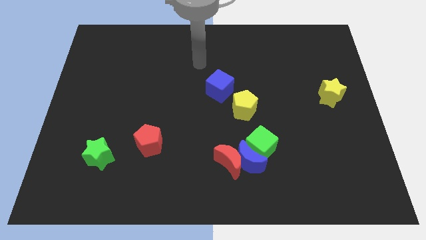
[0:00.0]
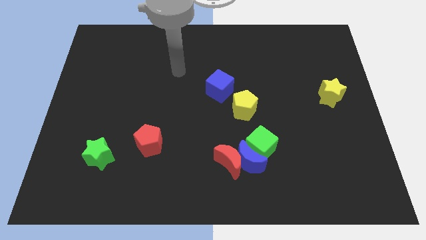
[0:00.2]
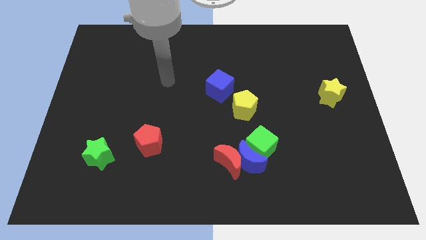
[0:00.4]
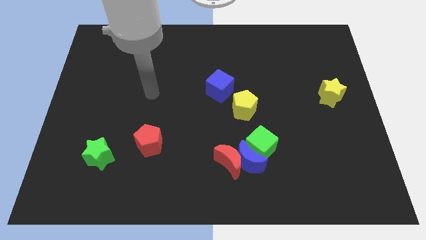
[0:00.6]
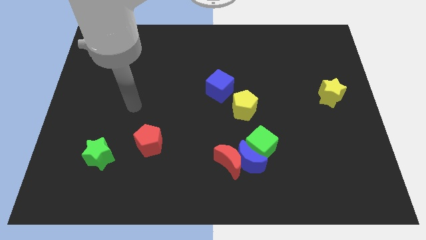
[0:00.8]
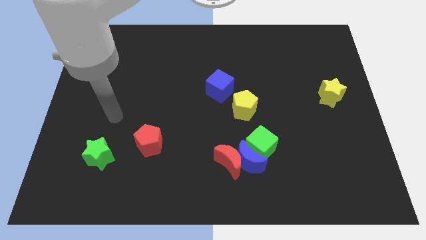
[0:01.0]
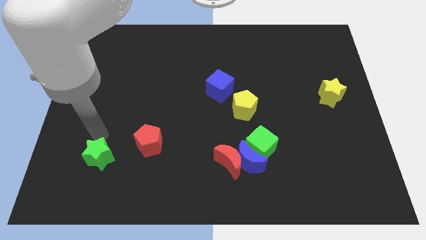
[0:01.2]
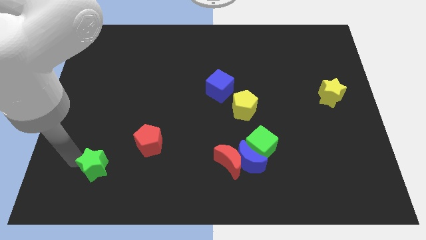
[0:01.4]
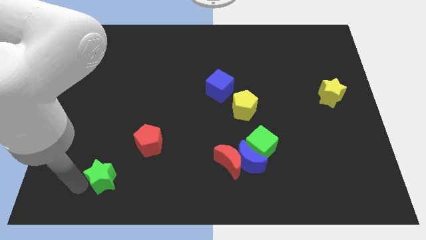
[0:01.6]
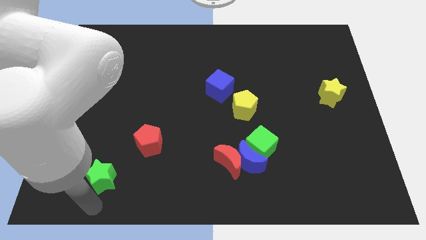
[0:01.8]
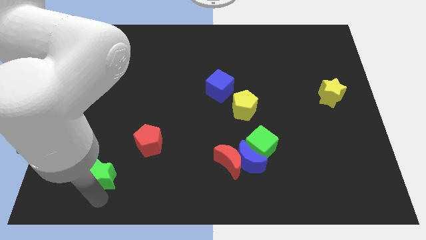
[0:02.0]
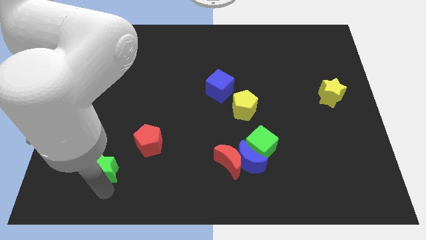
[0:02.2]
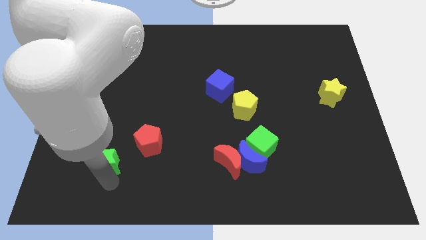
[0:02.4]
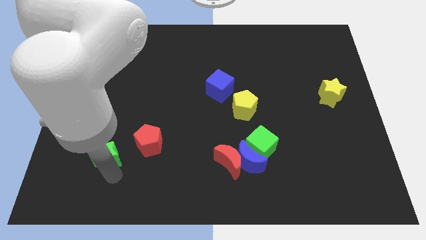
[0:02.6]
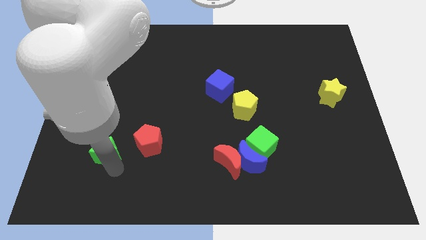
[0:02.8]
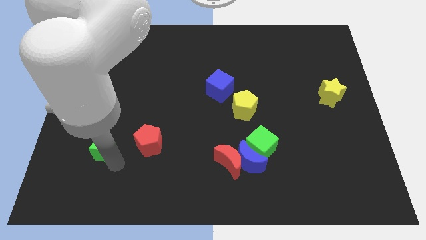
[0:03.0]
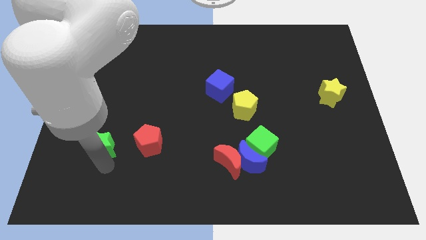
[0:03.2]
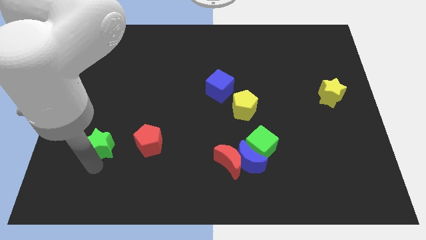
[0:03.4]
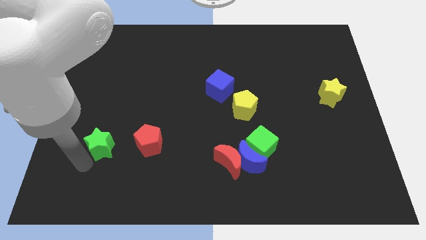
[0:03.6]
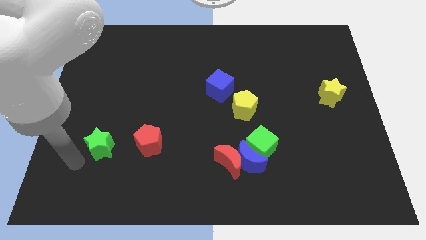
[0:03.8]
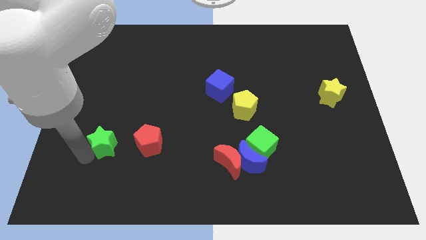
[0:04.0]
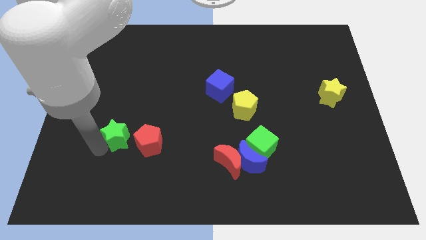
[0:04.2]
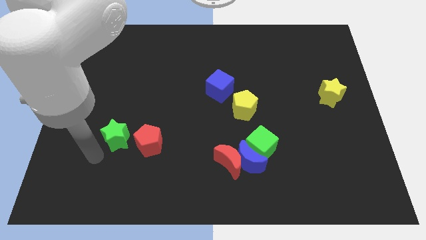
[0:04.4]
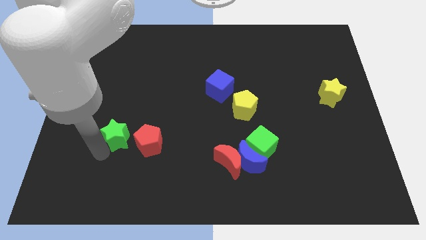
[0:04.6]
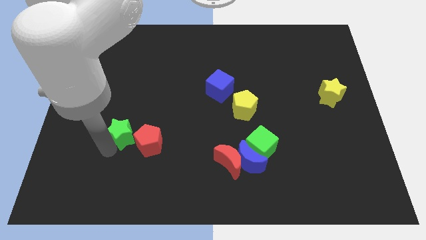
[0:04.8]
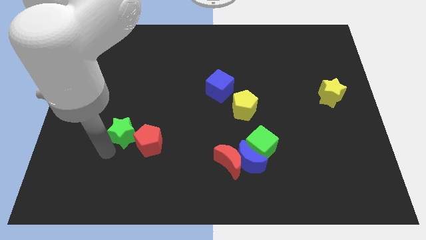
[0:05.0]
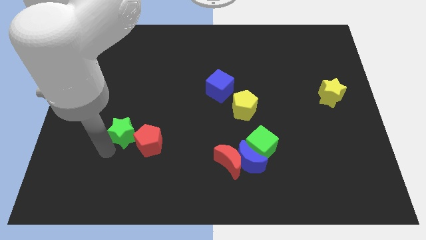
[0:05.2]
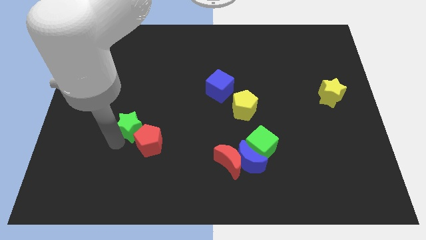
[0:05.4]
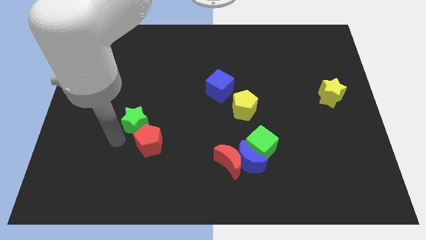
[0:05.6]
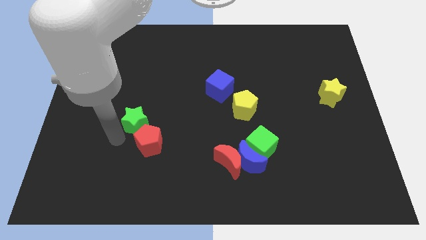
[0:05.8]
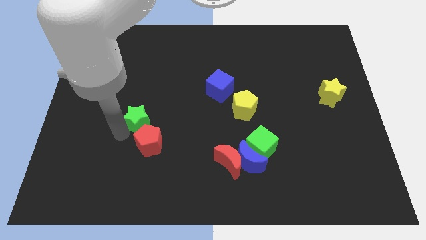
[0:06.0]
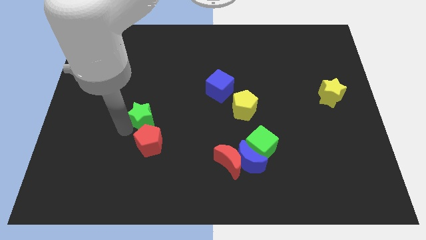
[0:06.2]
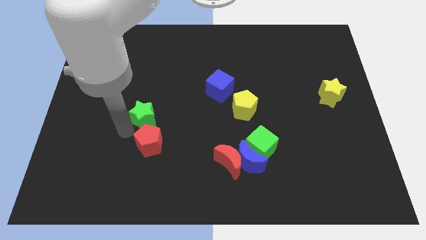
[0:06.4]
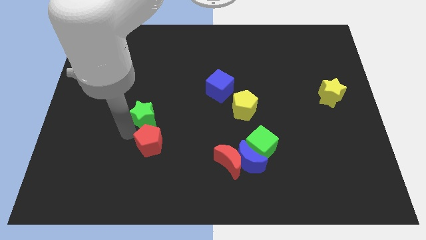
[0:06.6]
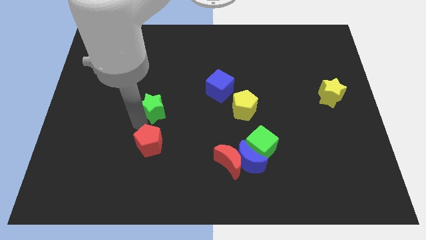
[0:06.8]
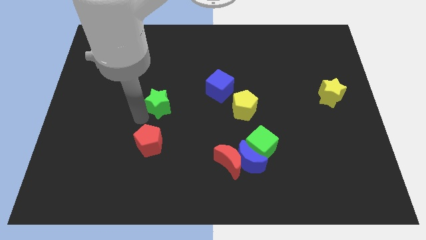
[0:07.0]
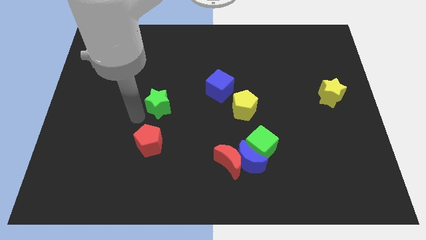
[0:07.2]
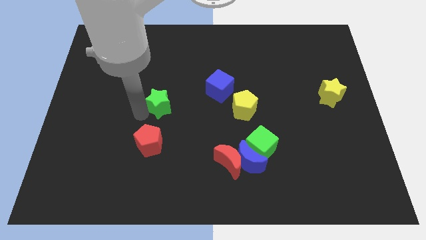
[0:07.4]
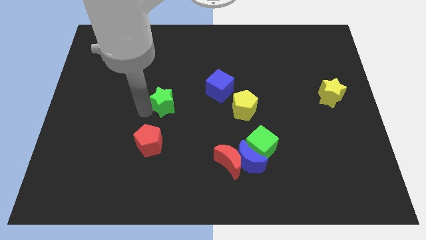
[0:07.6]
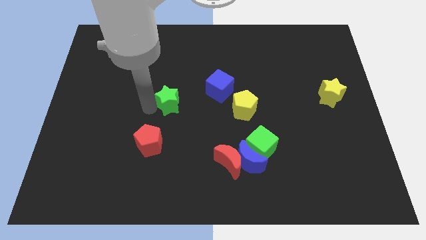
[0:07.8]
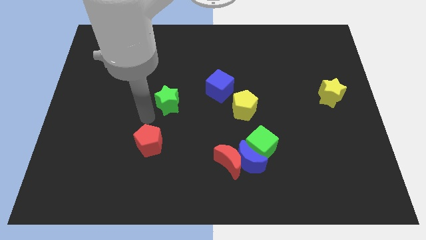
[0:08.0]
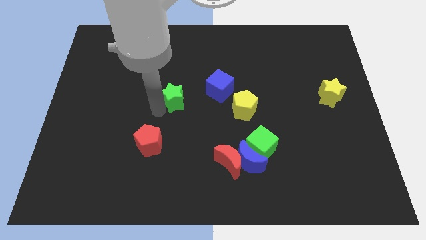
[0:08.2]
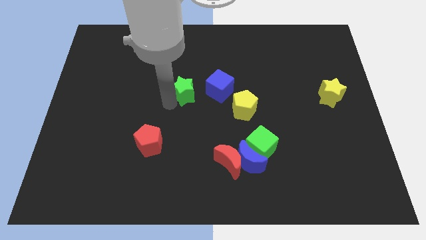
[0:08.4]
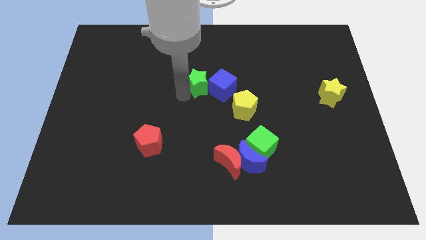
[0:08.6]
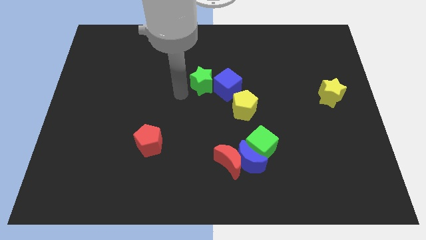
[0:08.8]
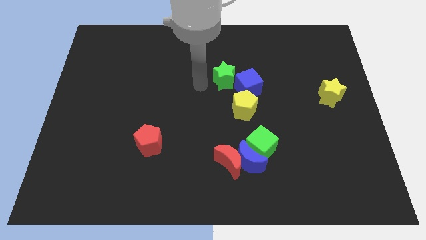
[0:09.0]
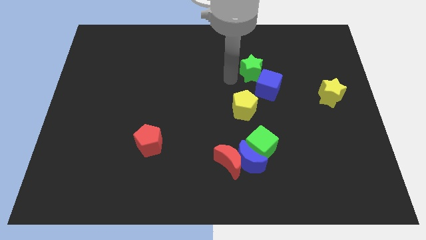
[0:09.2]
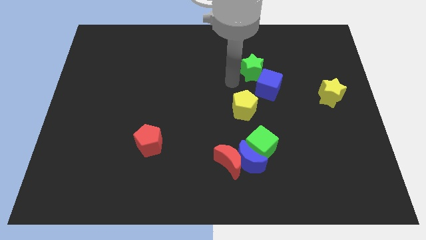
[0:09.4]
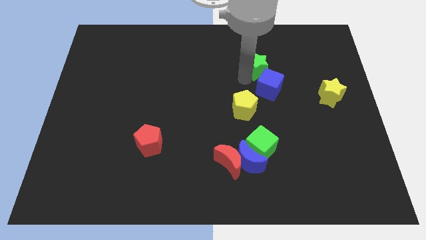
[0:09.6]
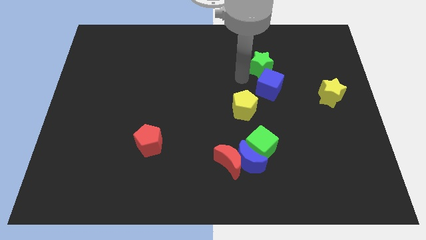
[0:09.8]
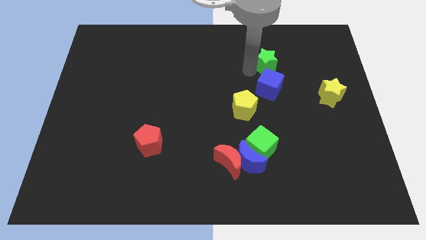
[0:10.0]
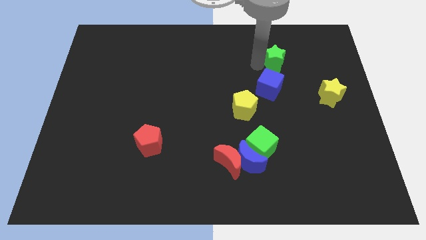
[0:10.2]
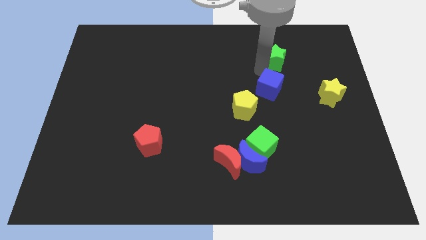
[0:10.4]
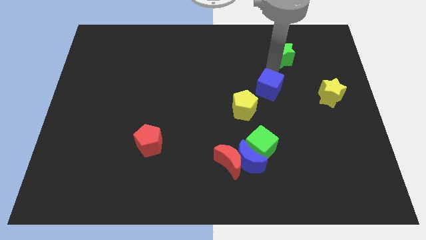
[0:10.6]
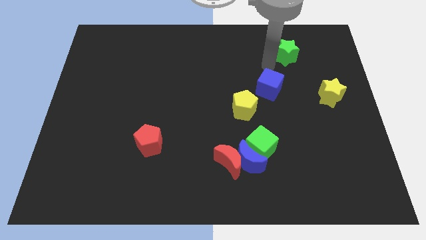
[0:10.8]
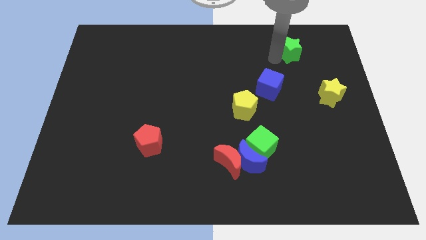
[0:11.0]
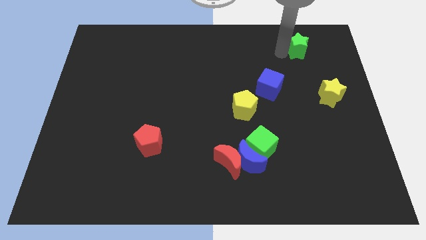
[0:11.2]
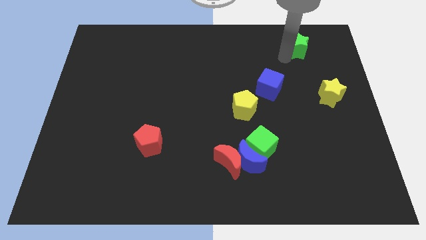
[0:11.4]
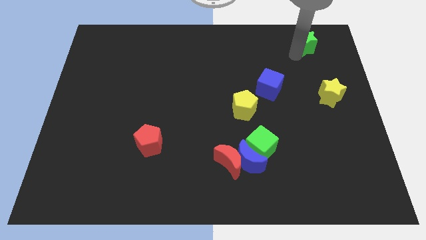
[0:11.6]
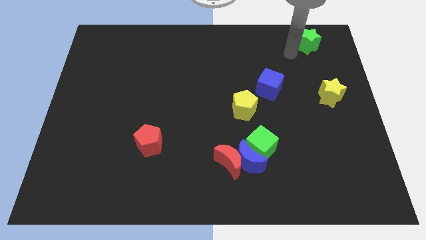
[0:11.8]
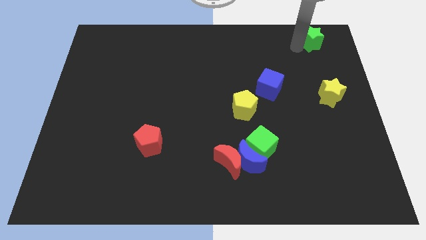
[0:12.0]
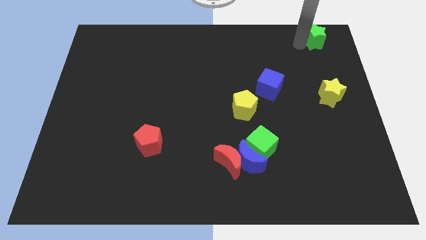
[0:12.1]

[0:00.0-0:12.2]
move the green star to the upper right corner

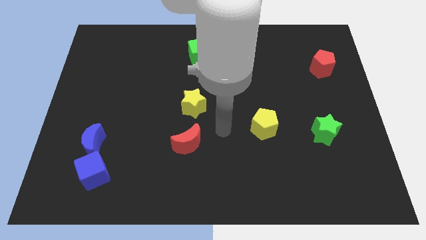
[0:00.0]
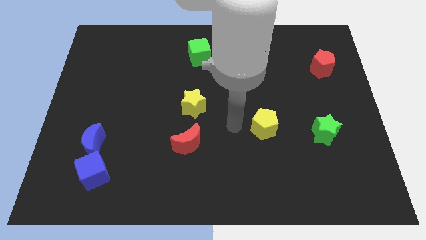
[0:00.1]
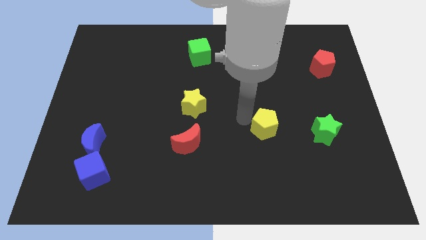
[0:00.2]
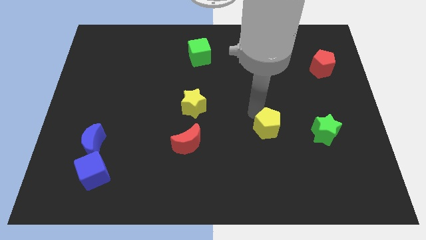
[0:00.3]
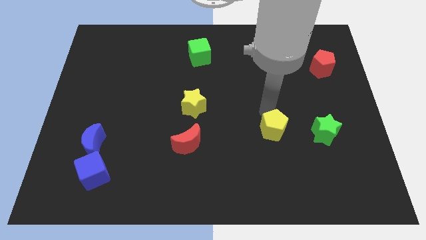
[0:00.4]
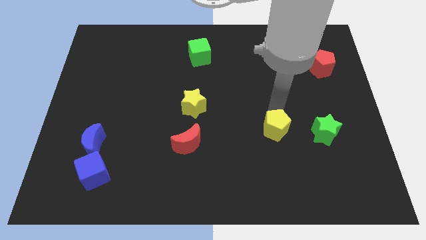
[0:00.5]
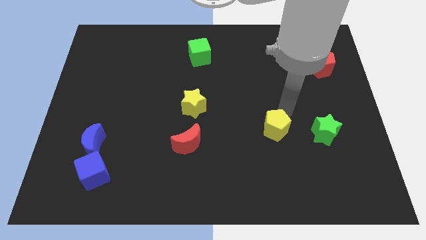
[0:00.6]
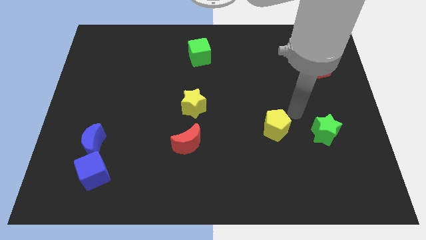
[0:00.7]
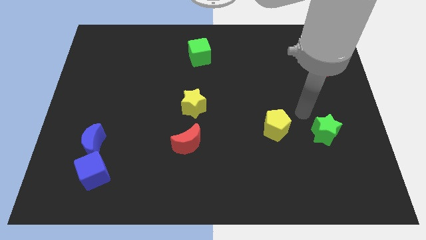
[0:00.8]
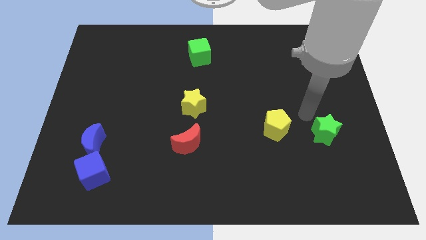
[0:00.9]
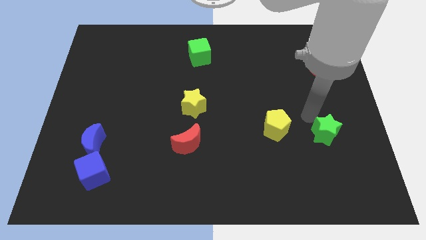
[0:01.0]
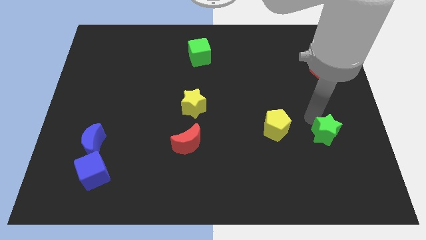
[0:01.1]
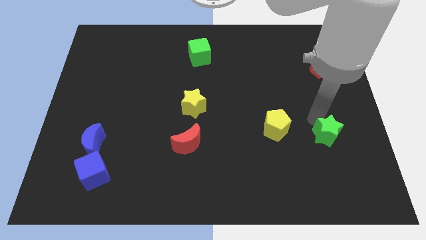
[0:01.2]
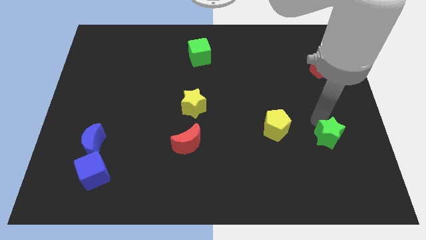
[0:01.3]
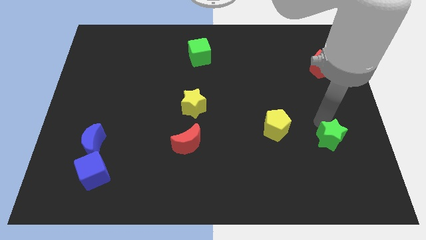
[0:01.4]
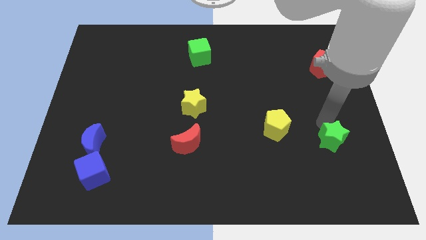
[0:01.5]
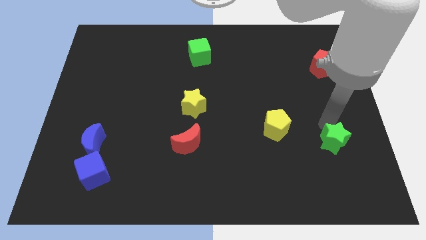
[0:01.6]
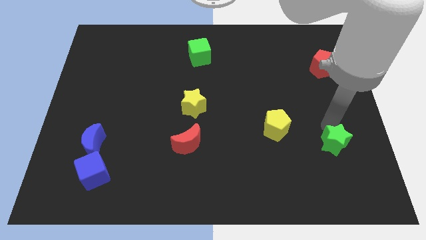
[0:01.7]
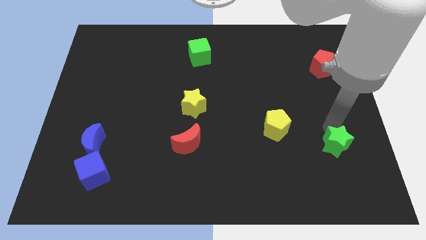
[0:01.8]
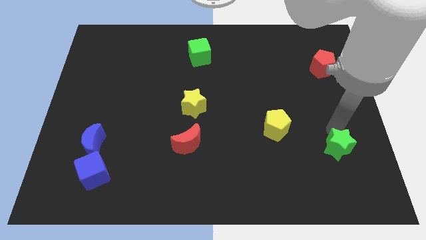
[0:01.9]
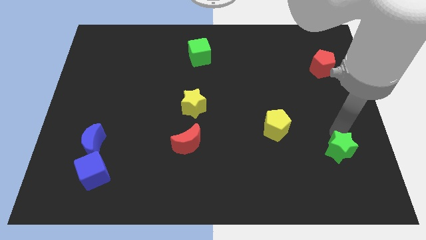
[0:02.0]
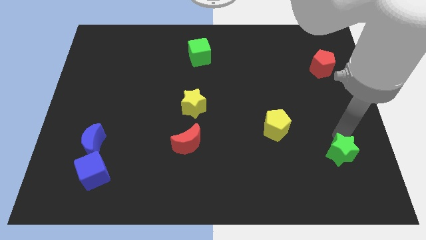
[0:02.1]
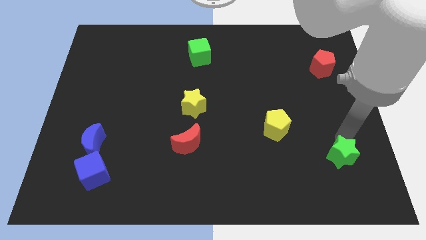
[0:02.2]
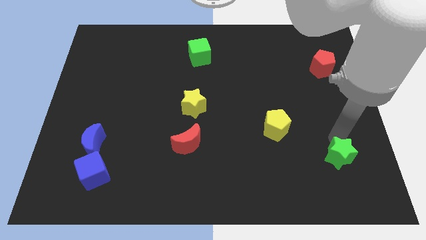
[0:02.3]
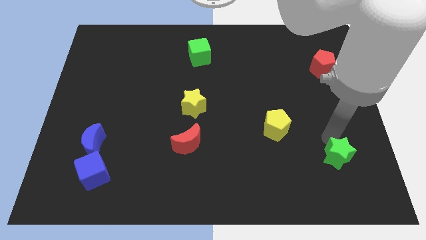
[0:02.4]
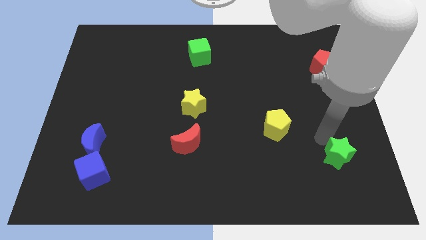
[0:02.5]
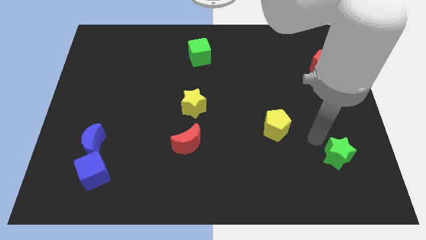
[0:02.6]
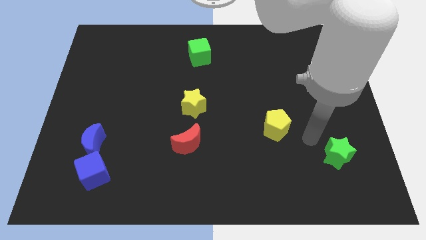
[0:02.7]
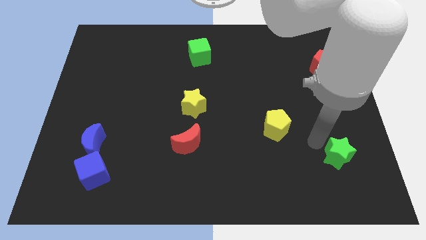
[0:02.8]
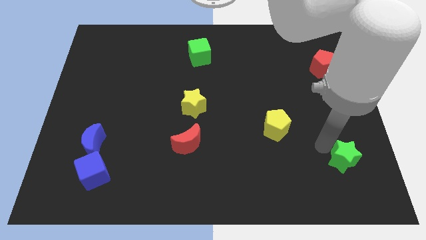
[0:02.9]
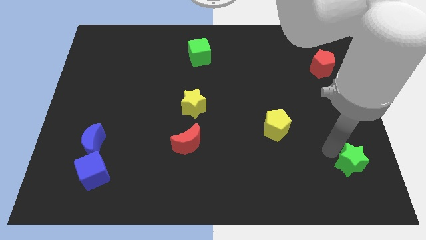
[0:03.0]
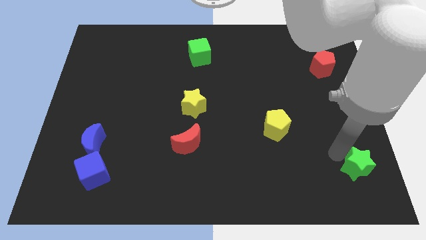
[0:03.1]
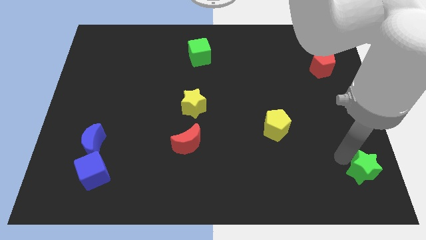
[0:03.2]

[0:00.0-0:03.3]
move the green star to the bottom right corner
